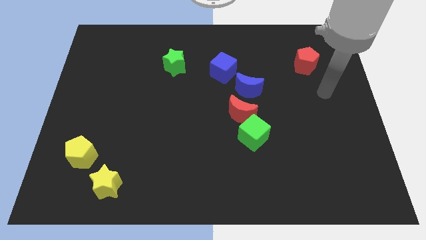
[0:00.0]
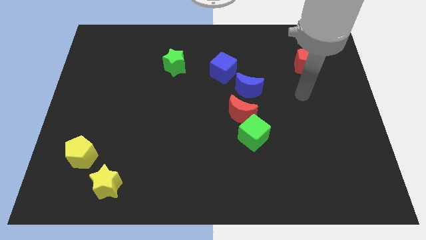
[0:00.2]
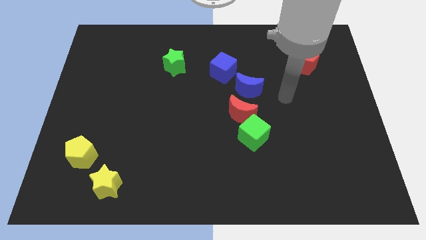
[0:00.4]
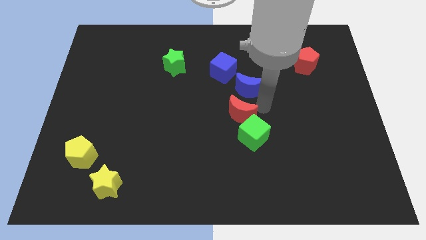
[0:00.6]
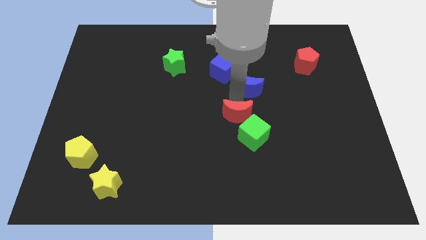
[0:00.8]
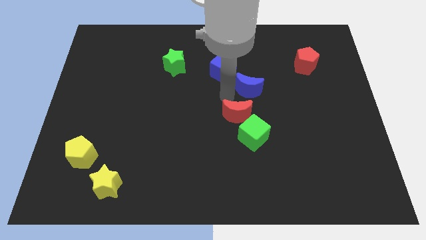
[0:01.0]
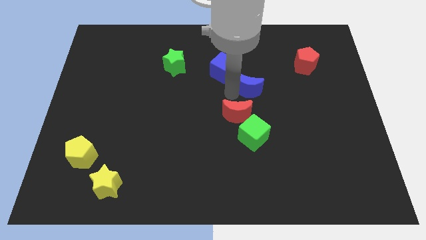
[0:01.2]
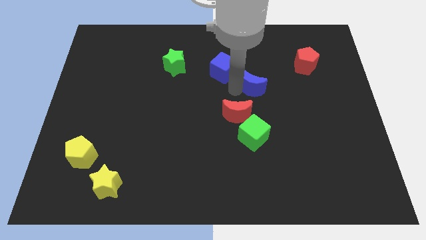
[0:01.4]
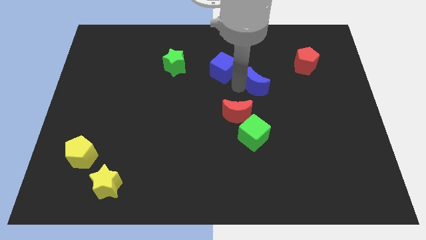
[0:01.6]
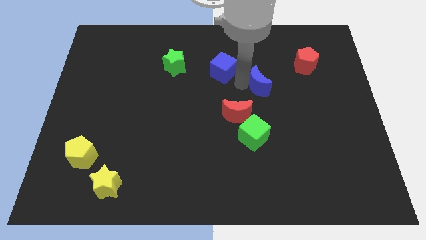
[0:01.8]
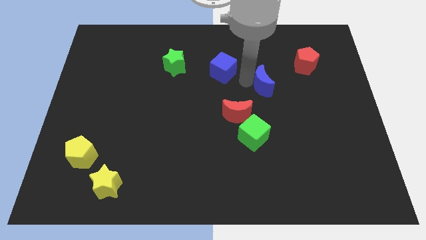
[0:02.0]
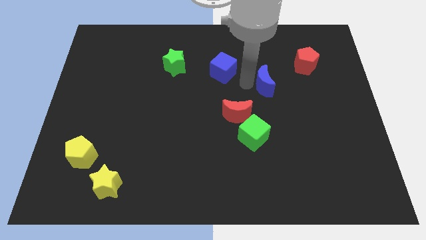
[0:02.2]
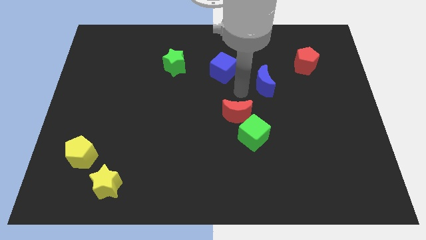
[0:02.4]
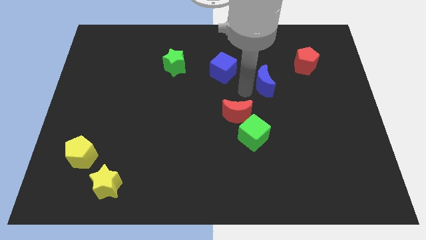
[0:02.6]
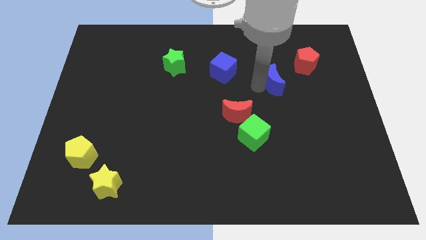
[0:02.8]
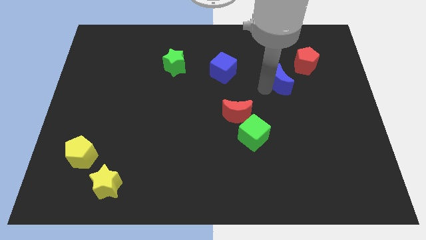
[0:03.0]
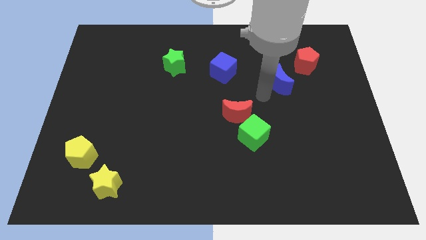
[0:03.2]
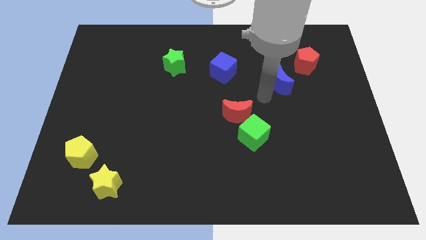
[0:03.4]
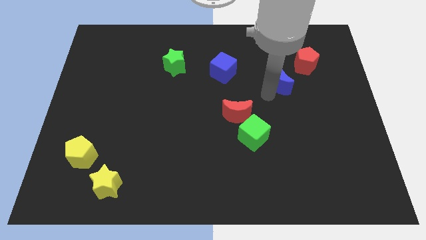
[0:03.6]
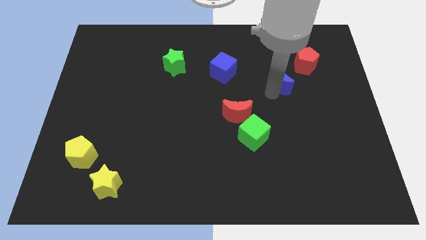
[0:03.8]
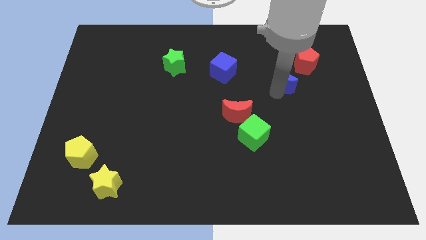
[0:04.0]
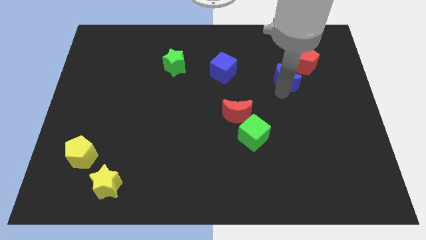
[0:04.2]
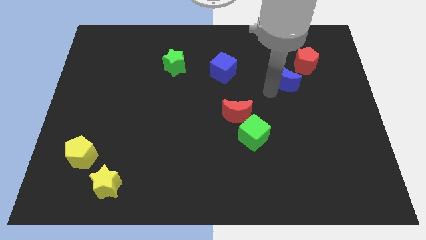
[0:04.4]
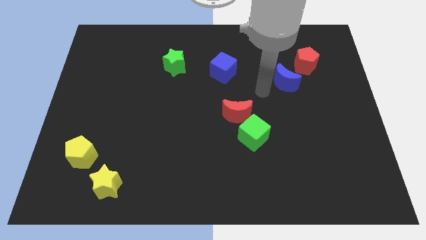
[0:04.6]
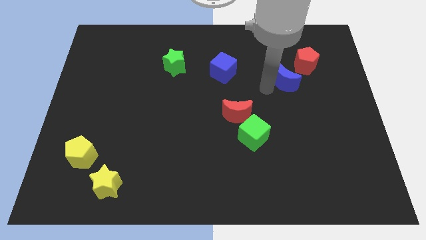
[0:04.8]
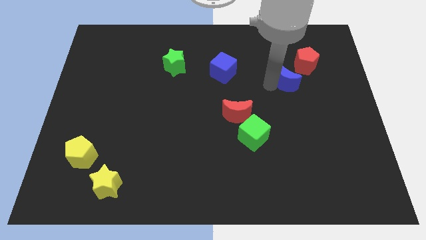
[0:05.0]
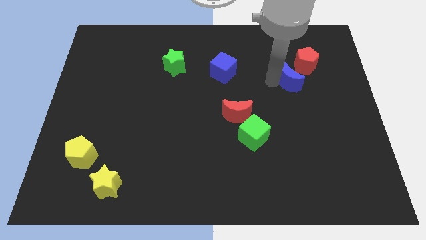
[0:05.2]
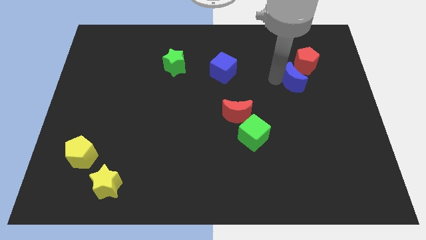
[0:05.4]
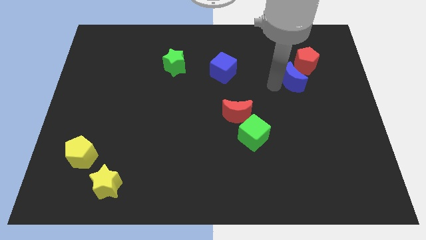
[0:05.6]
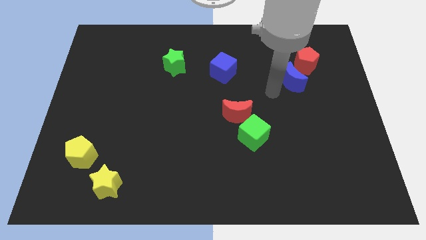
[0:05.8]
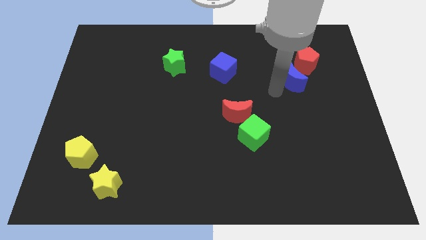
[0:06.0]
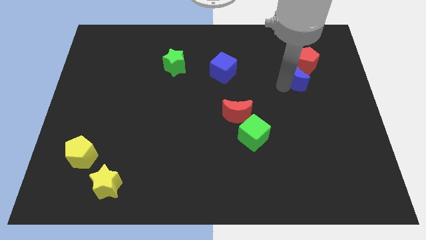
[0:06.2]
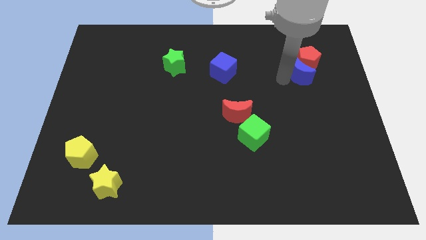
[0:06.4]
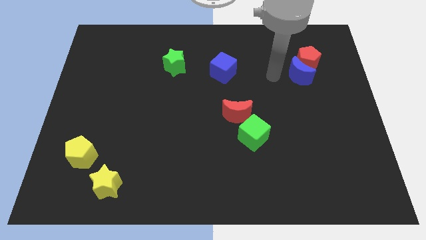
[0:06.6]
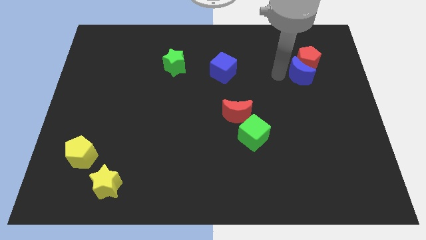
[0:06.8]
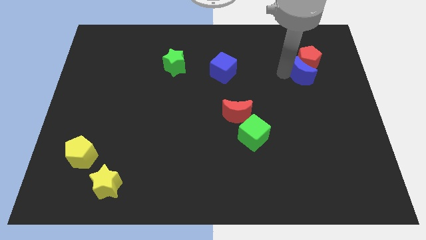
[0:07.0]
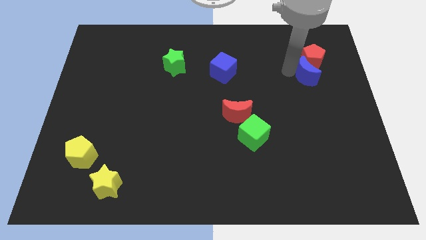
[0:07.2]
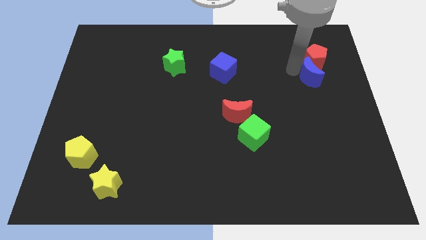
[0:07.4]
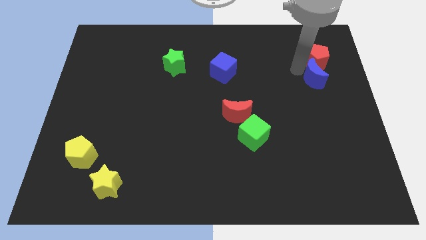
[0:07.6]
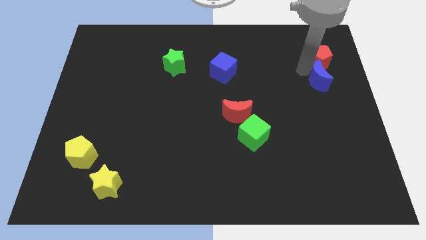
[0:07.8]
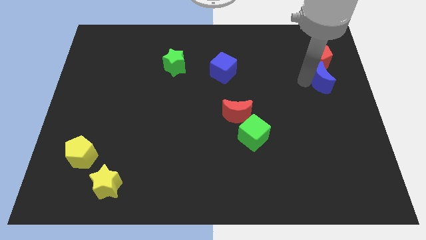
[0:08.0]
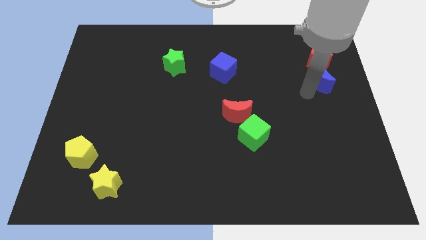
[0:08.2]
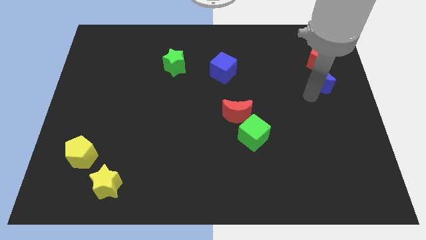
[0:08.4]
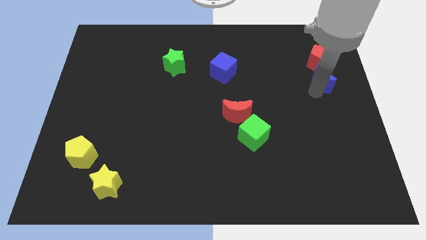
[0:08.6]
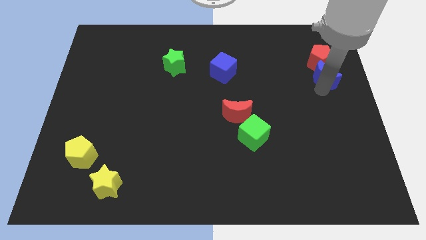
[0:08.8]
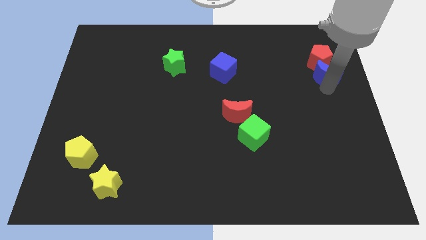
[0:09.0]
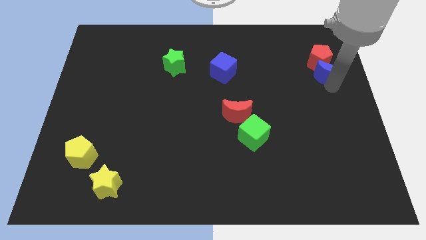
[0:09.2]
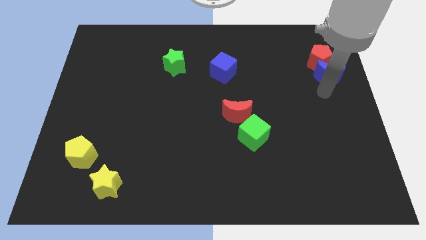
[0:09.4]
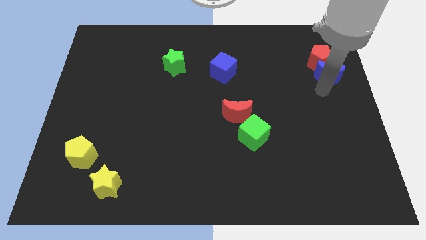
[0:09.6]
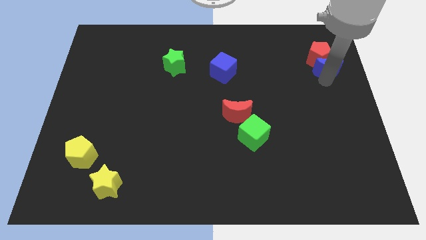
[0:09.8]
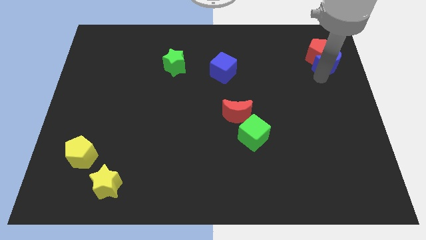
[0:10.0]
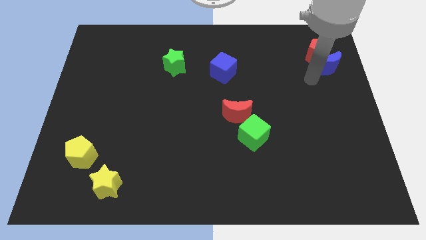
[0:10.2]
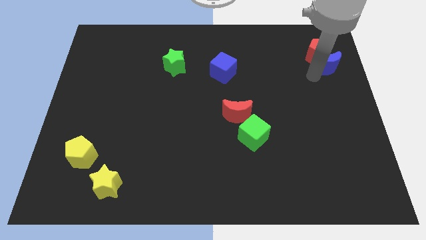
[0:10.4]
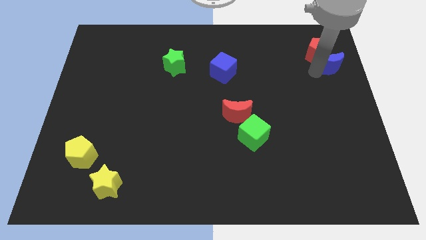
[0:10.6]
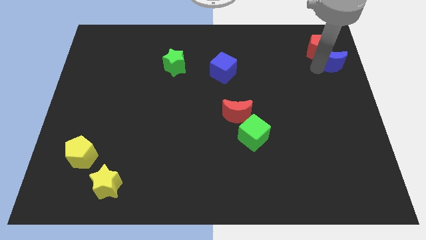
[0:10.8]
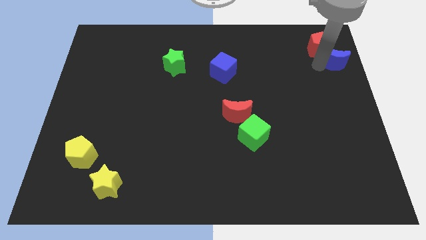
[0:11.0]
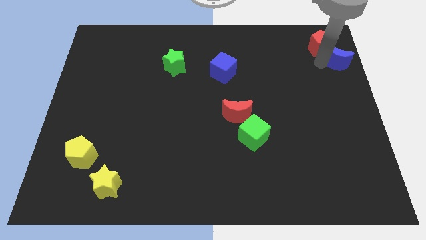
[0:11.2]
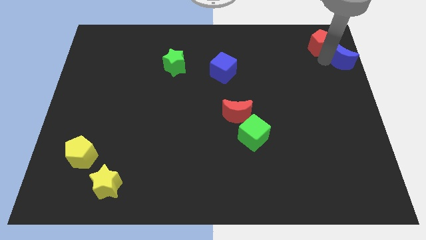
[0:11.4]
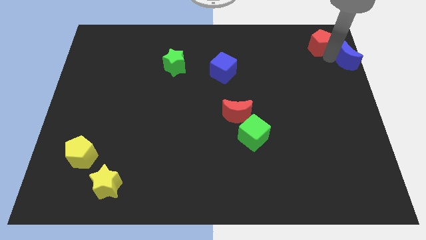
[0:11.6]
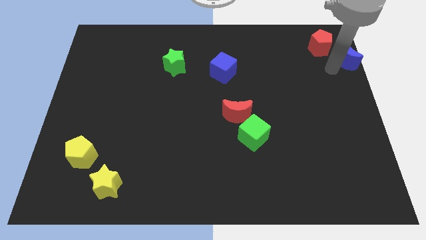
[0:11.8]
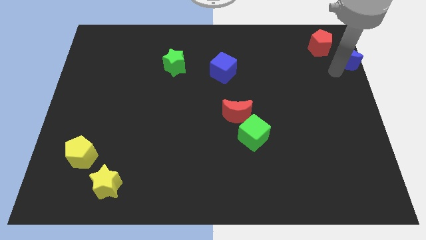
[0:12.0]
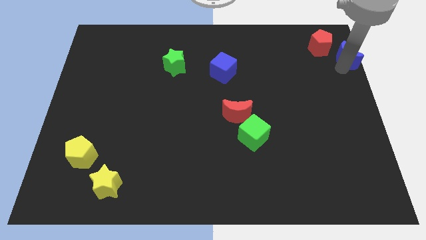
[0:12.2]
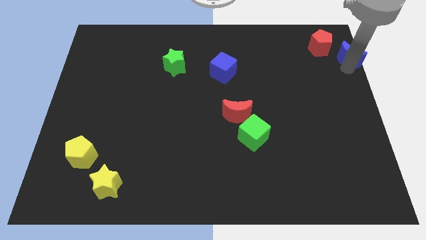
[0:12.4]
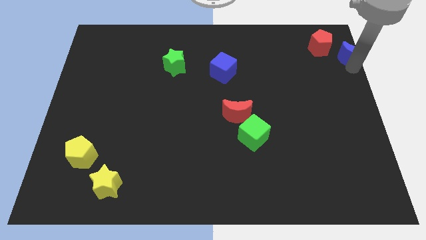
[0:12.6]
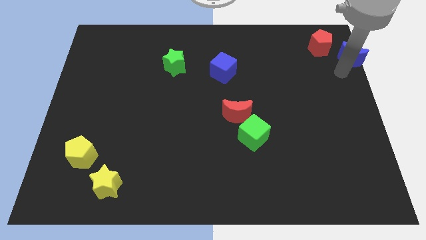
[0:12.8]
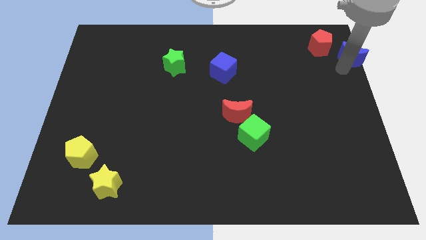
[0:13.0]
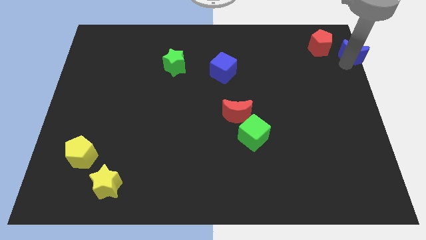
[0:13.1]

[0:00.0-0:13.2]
move the blue moon to the upper right corner

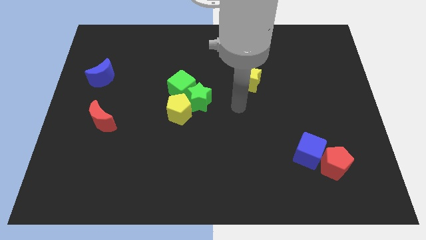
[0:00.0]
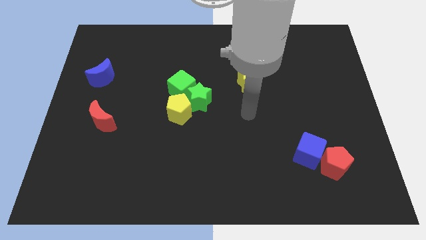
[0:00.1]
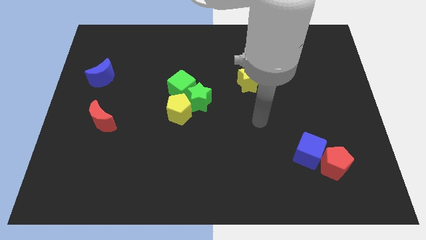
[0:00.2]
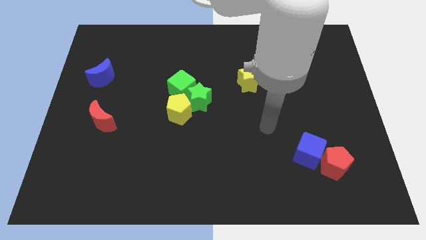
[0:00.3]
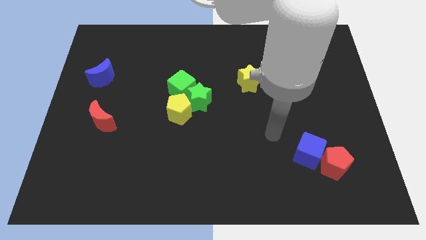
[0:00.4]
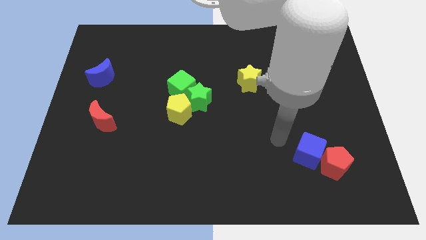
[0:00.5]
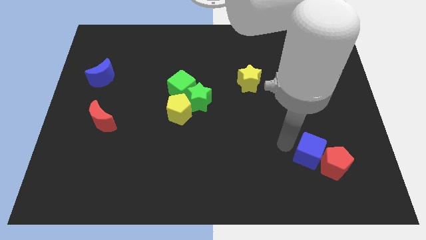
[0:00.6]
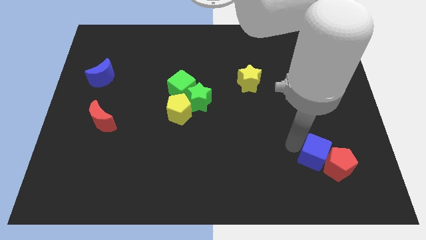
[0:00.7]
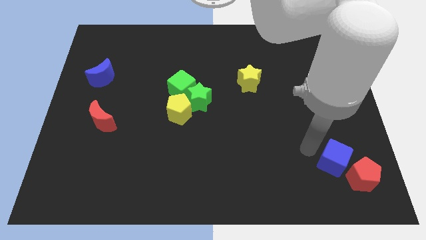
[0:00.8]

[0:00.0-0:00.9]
slide the red pentagon to the bottom right
